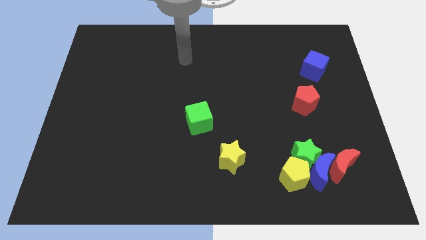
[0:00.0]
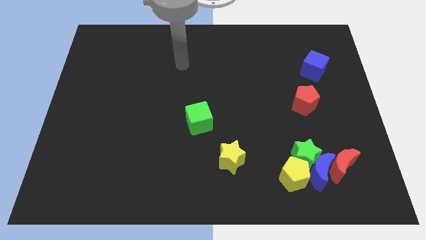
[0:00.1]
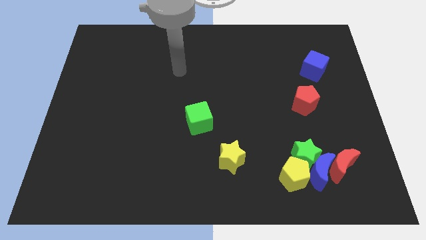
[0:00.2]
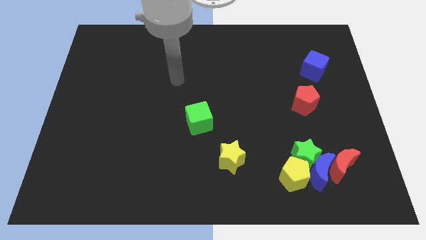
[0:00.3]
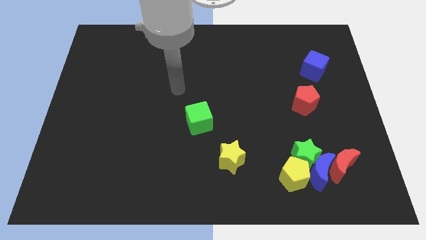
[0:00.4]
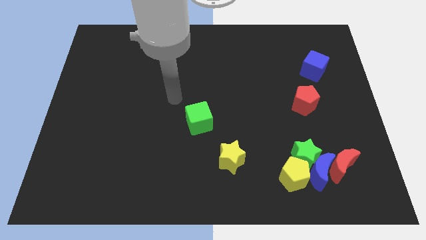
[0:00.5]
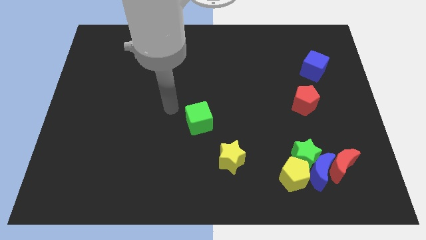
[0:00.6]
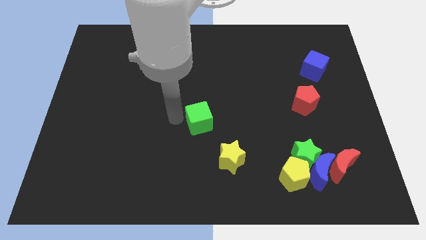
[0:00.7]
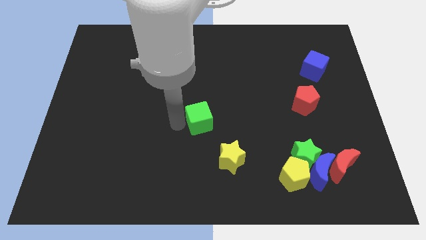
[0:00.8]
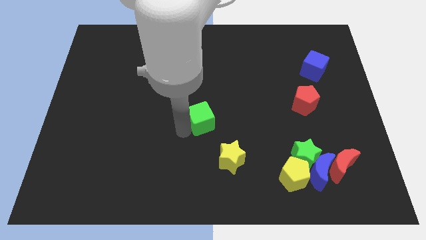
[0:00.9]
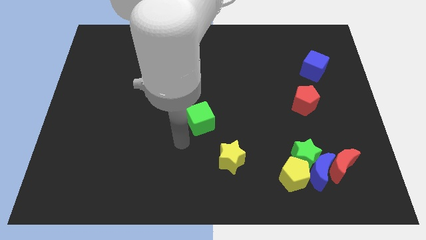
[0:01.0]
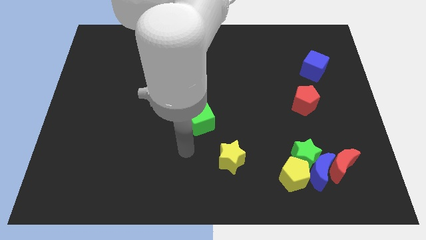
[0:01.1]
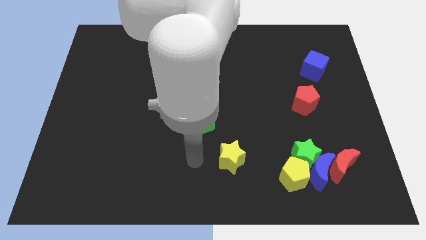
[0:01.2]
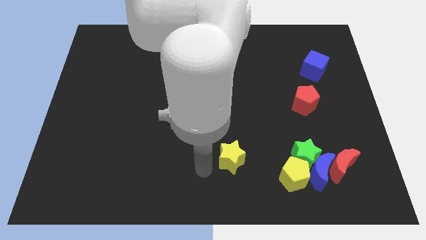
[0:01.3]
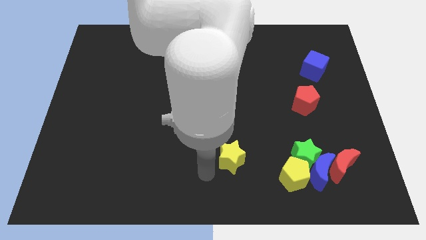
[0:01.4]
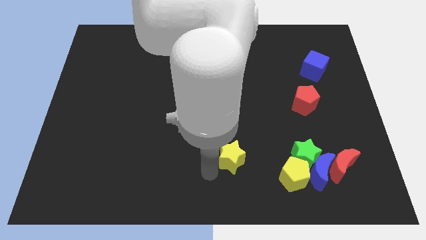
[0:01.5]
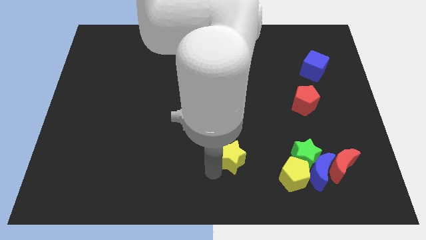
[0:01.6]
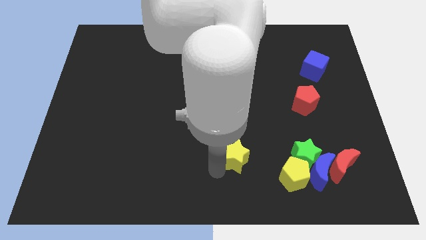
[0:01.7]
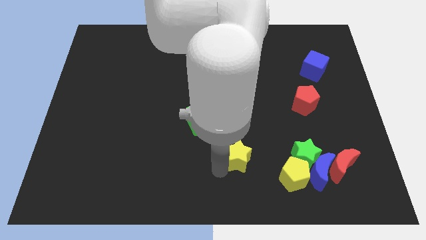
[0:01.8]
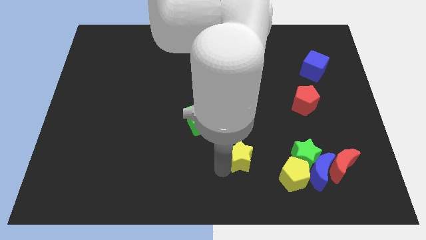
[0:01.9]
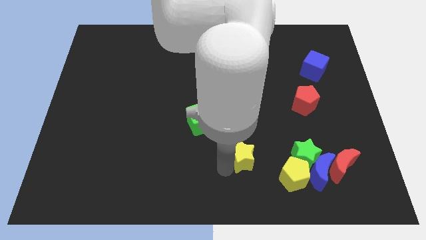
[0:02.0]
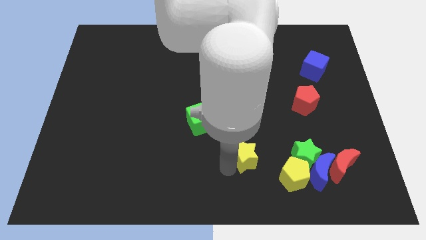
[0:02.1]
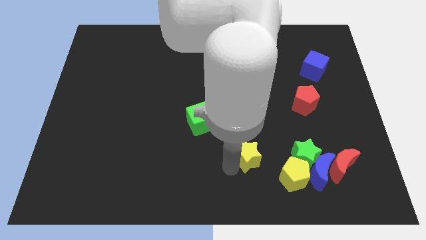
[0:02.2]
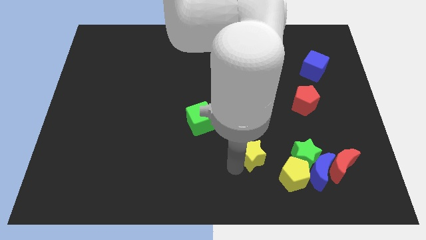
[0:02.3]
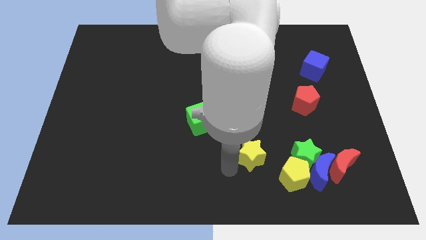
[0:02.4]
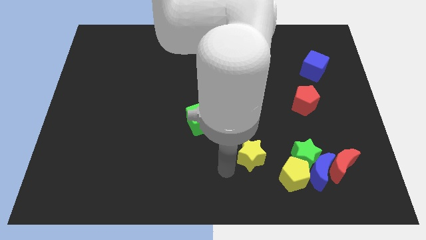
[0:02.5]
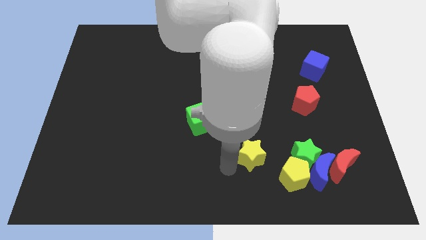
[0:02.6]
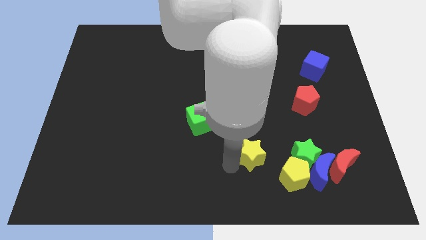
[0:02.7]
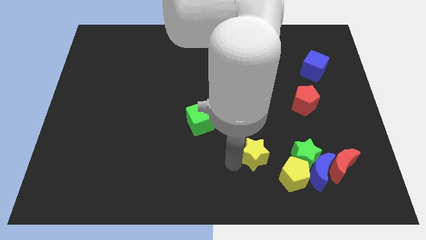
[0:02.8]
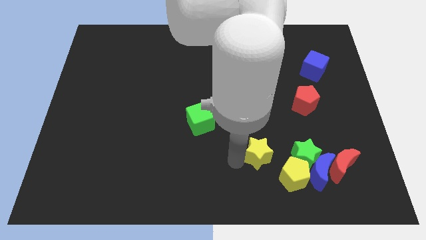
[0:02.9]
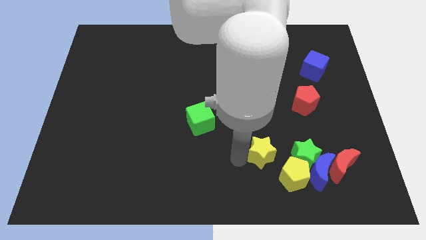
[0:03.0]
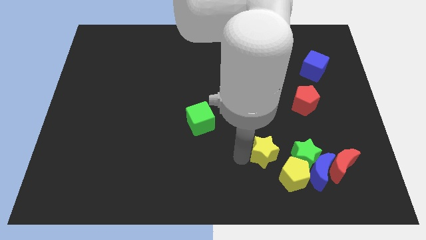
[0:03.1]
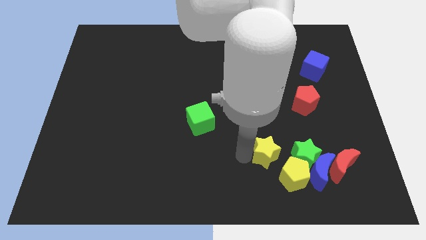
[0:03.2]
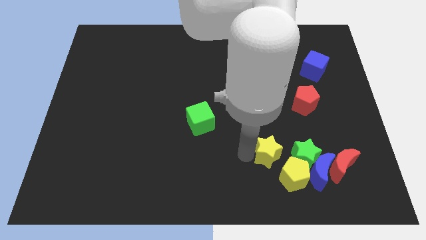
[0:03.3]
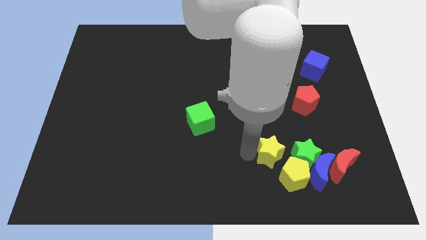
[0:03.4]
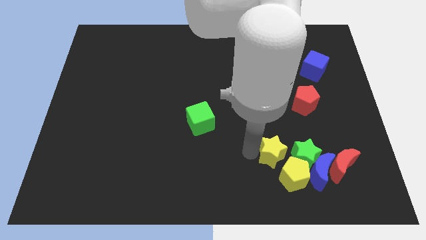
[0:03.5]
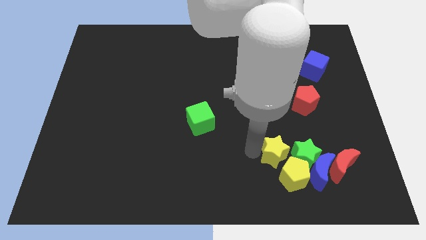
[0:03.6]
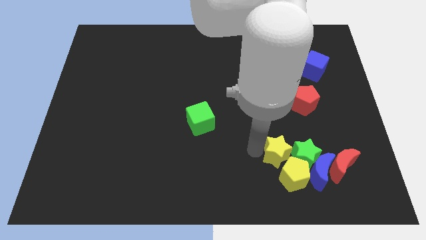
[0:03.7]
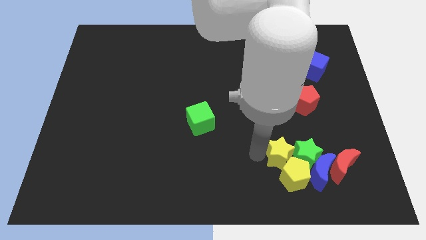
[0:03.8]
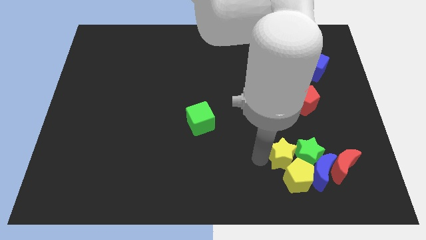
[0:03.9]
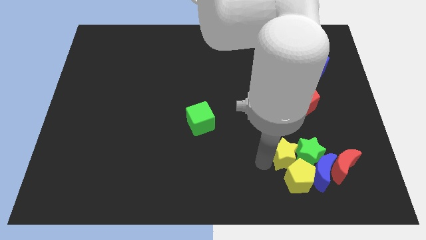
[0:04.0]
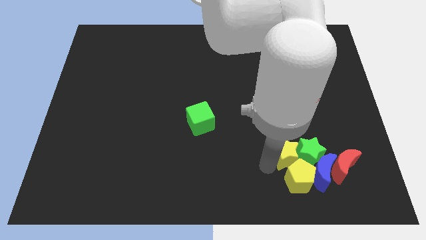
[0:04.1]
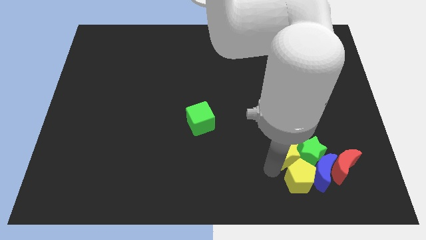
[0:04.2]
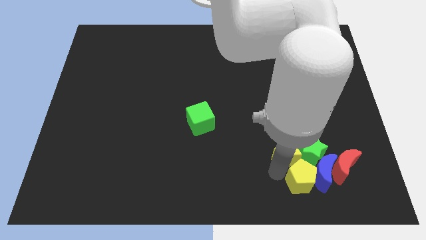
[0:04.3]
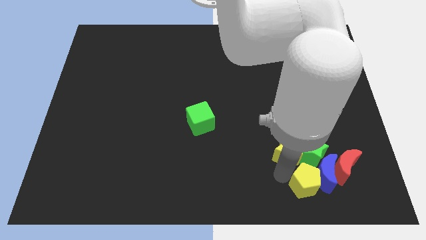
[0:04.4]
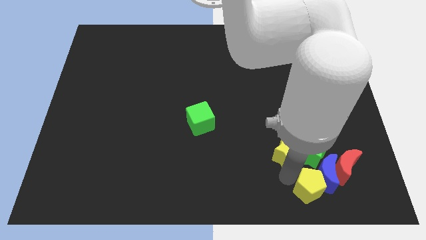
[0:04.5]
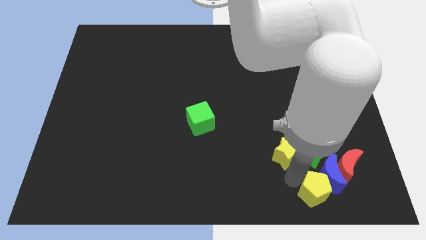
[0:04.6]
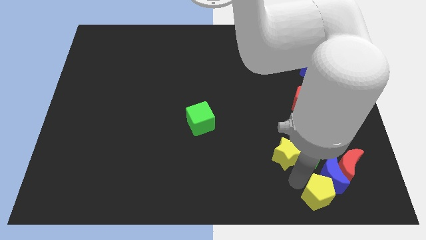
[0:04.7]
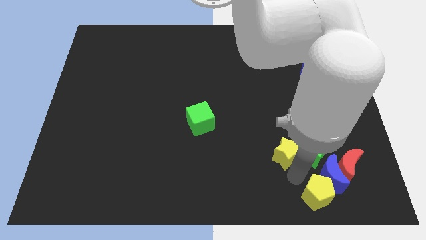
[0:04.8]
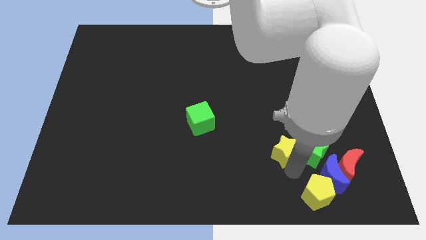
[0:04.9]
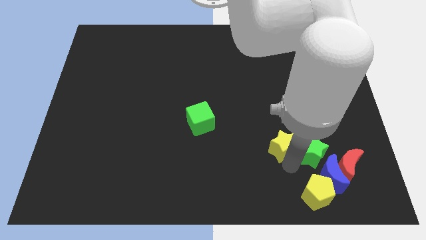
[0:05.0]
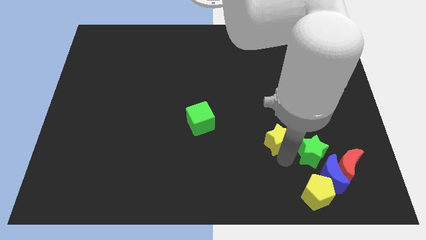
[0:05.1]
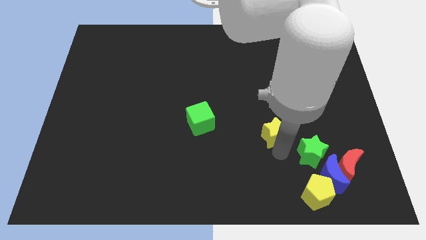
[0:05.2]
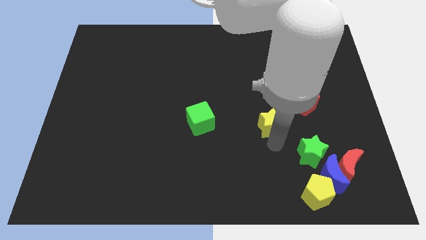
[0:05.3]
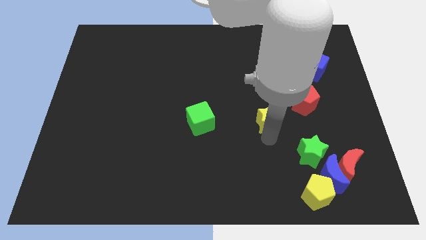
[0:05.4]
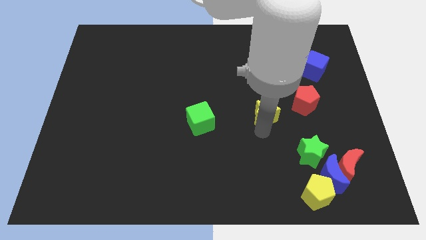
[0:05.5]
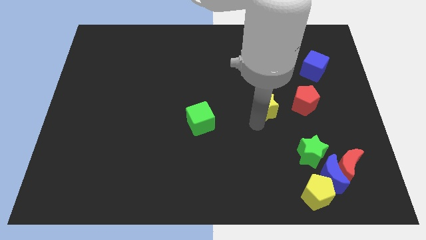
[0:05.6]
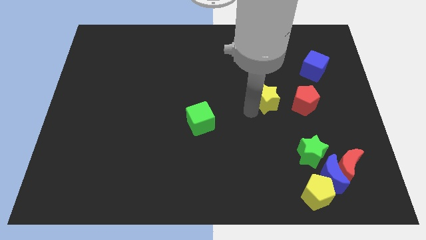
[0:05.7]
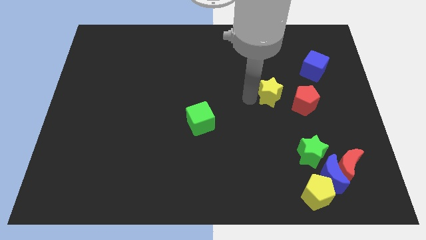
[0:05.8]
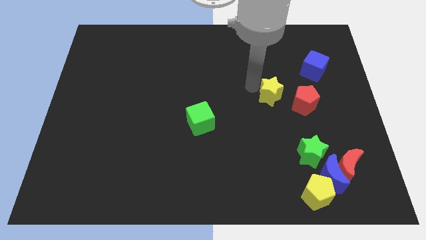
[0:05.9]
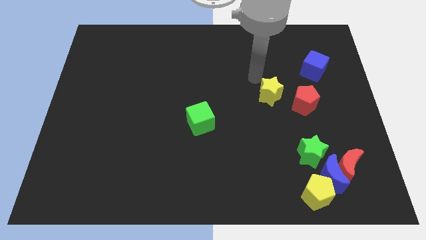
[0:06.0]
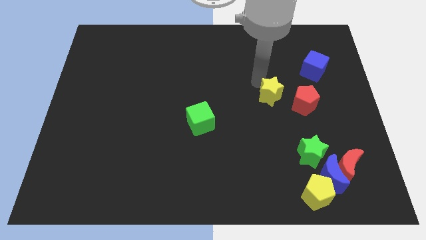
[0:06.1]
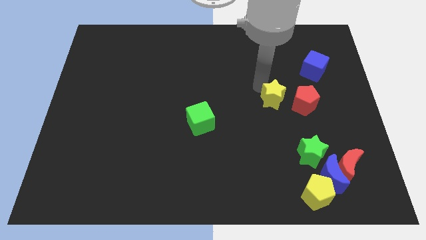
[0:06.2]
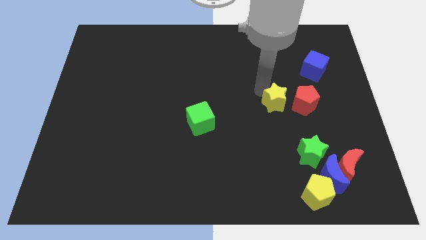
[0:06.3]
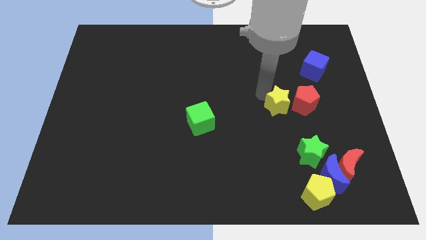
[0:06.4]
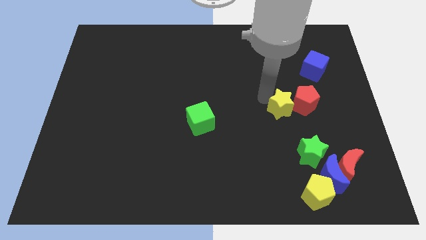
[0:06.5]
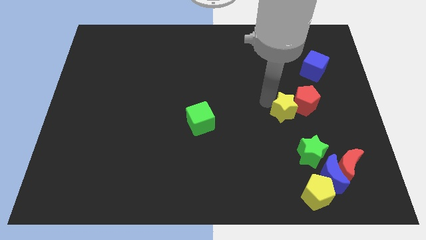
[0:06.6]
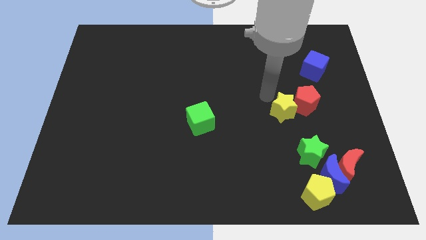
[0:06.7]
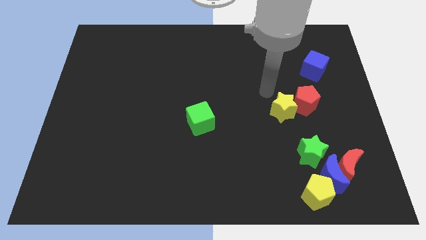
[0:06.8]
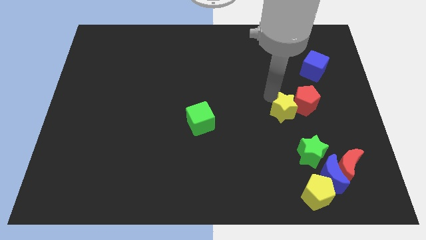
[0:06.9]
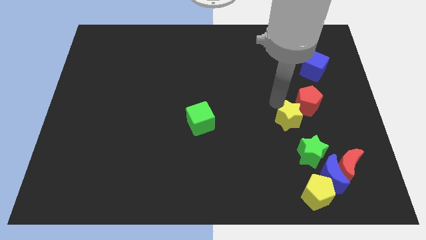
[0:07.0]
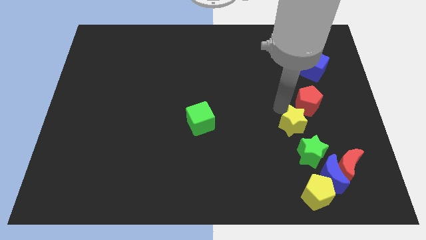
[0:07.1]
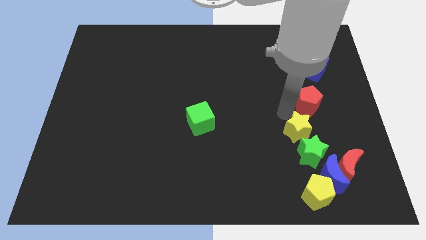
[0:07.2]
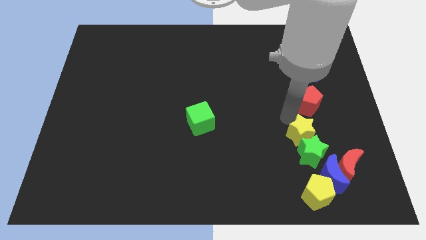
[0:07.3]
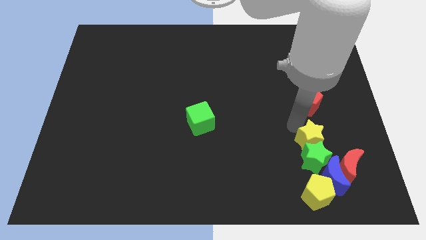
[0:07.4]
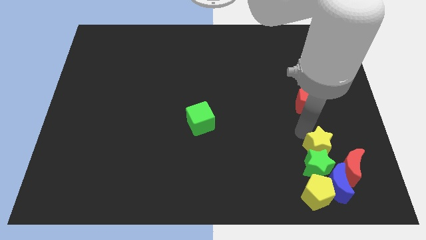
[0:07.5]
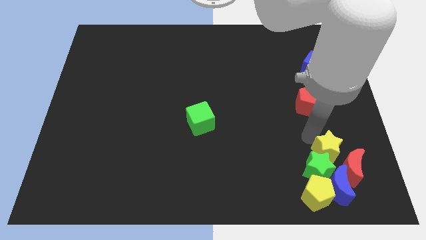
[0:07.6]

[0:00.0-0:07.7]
put the yellow star to the top right side of the yellow pentagon

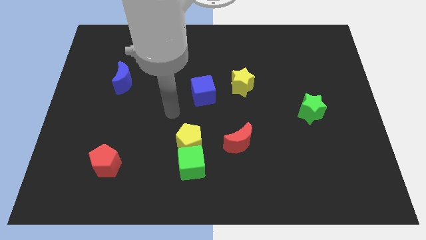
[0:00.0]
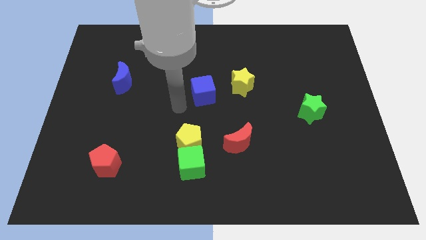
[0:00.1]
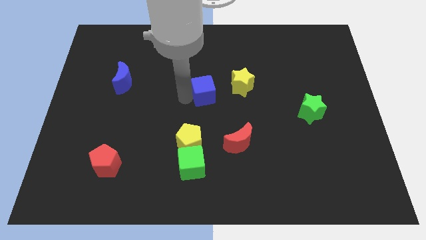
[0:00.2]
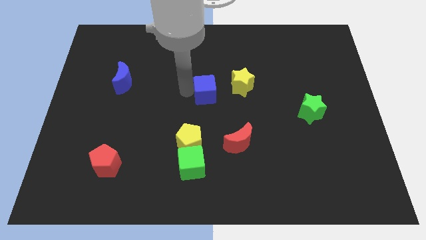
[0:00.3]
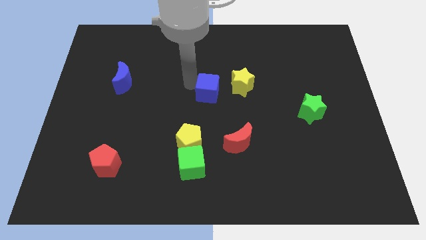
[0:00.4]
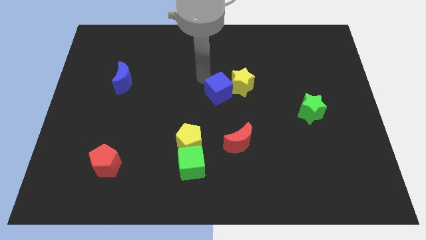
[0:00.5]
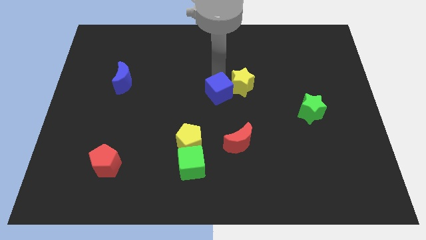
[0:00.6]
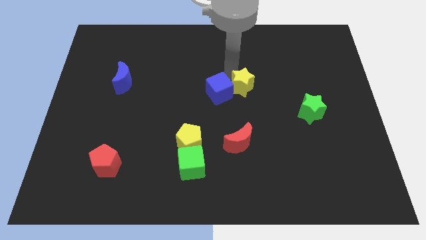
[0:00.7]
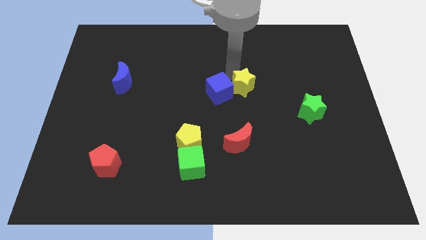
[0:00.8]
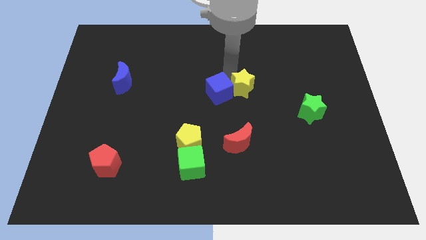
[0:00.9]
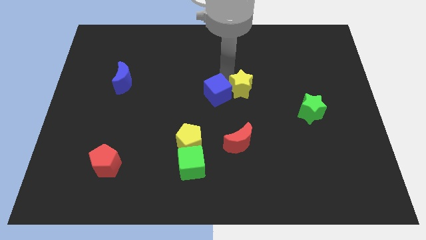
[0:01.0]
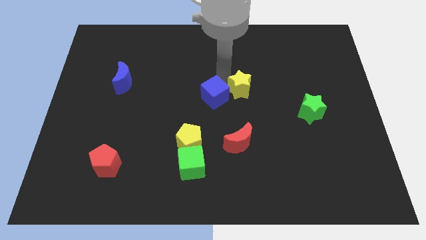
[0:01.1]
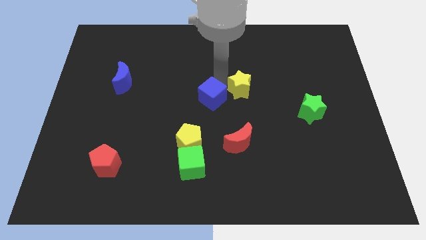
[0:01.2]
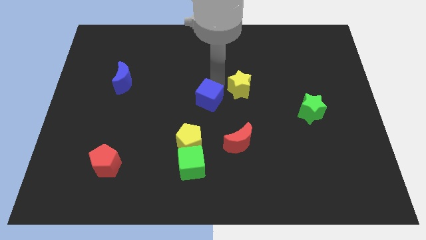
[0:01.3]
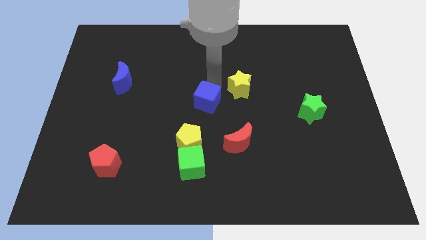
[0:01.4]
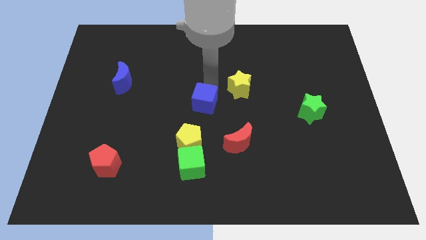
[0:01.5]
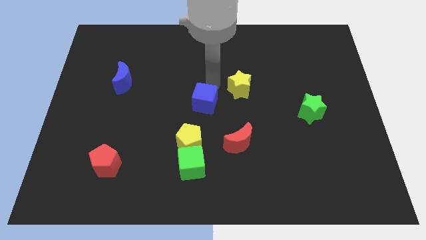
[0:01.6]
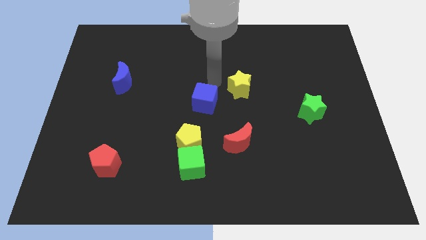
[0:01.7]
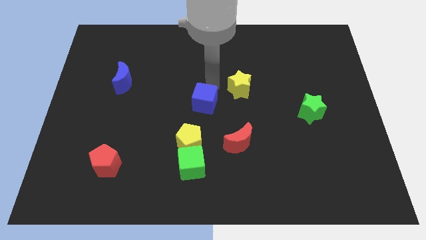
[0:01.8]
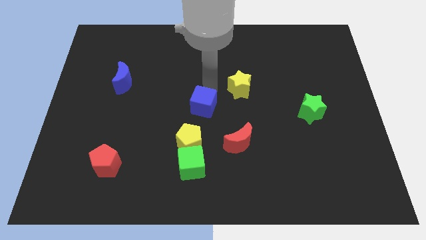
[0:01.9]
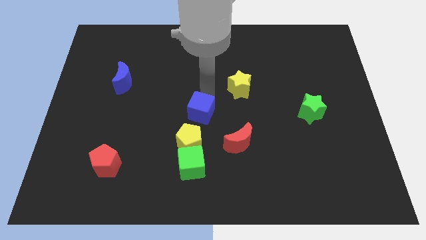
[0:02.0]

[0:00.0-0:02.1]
put the blue cube to the top of the green cube
